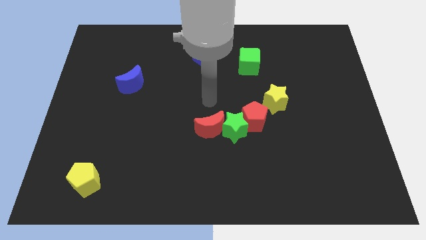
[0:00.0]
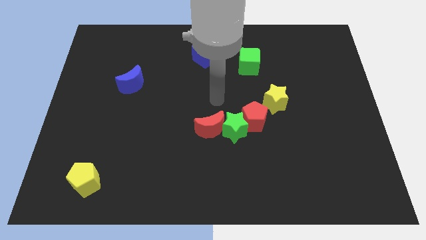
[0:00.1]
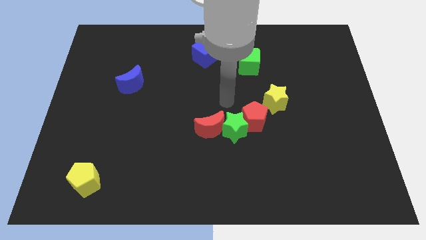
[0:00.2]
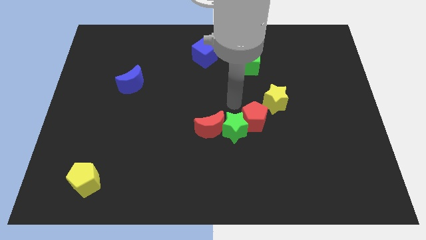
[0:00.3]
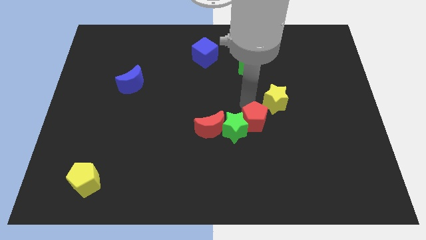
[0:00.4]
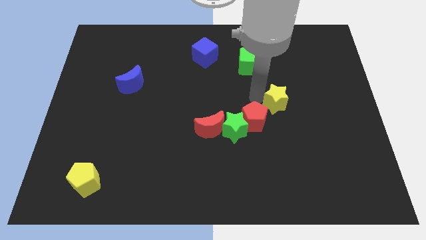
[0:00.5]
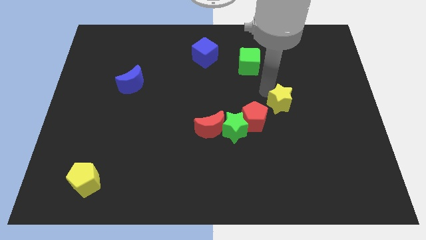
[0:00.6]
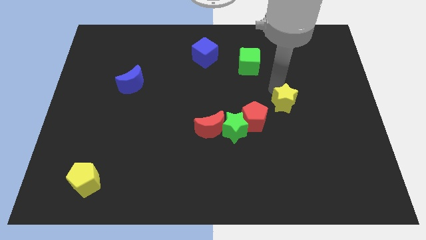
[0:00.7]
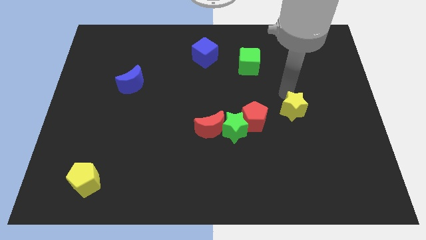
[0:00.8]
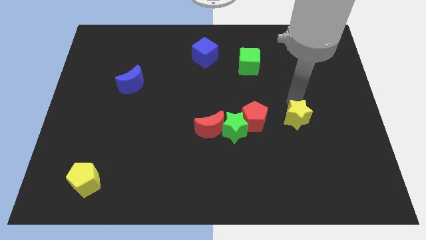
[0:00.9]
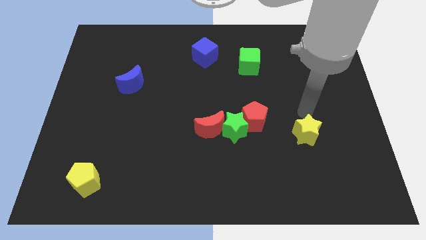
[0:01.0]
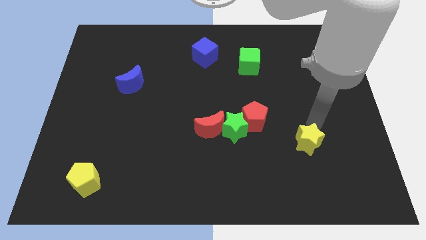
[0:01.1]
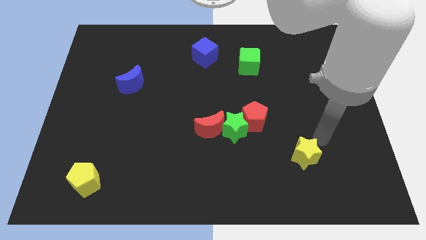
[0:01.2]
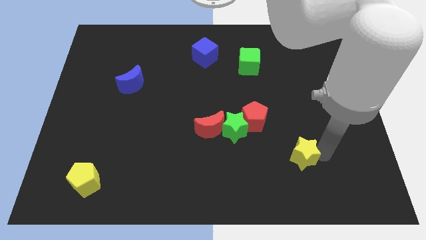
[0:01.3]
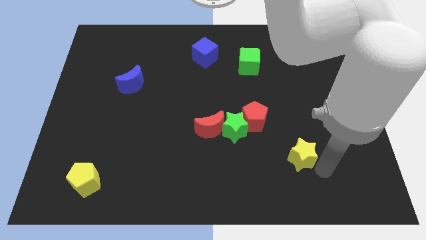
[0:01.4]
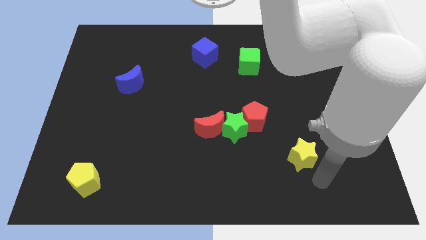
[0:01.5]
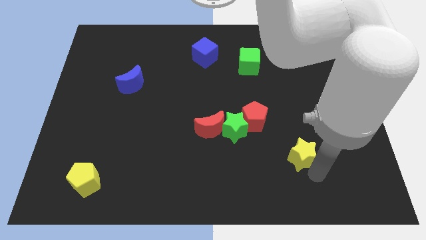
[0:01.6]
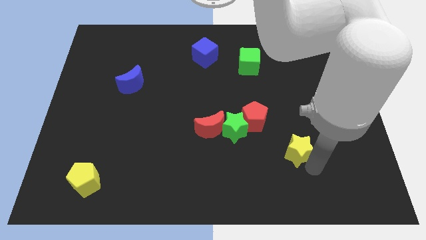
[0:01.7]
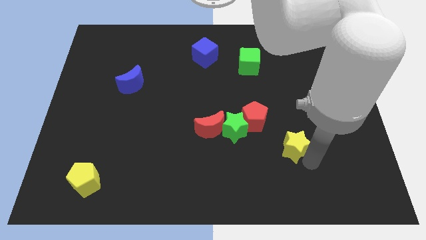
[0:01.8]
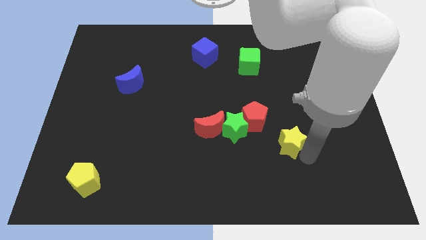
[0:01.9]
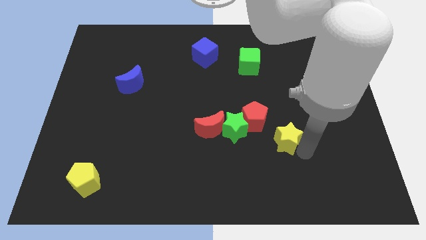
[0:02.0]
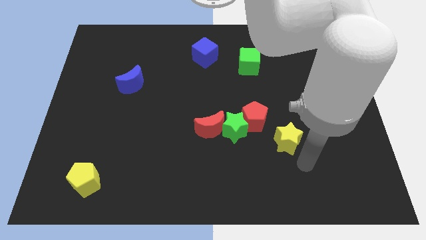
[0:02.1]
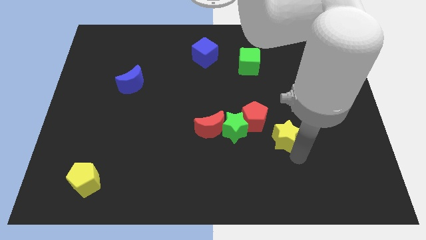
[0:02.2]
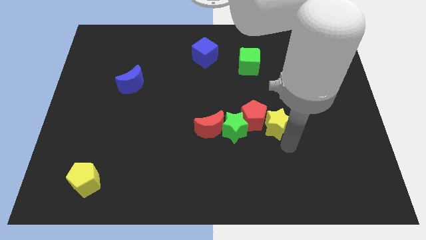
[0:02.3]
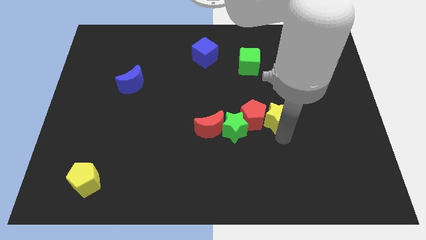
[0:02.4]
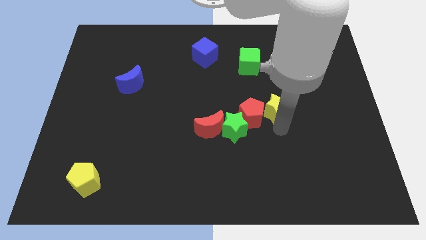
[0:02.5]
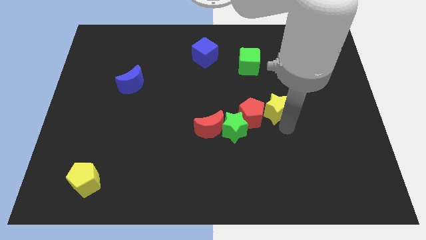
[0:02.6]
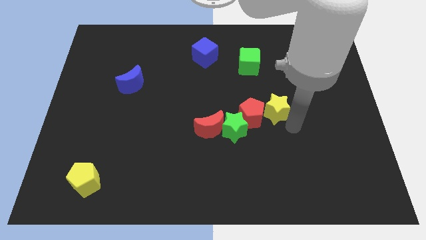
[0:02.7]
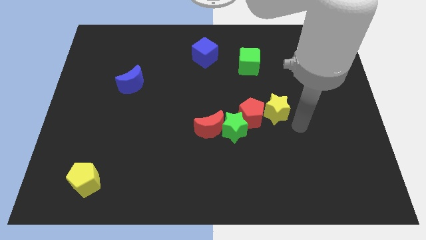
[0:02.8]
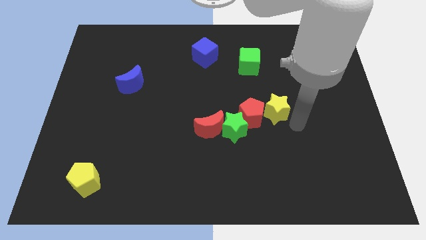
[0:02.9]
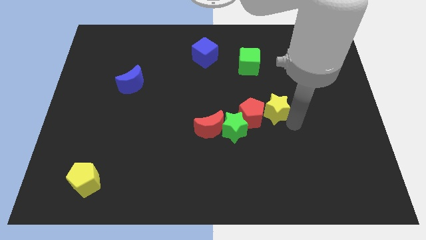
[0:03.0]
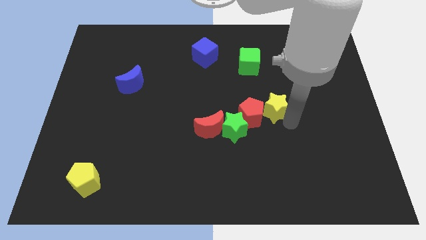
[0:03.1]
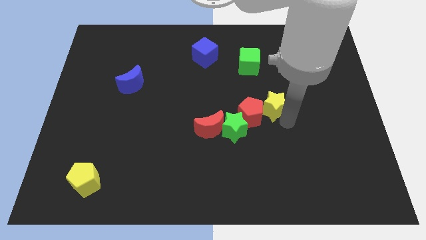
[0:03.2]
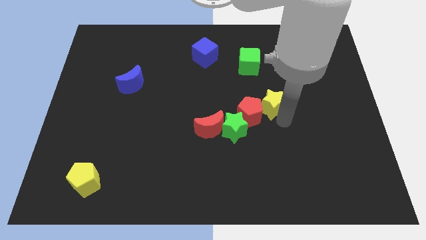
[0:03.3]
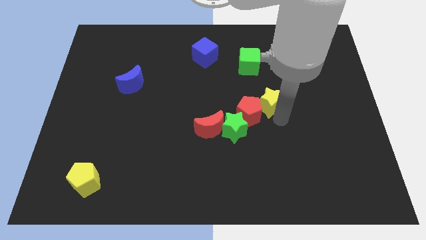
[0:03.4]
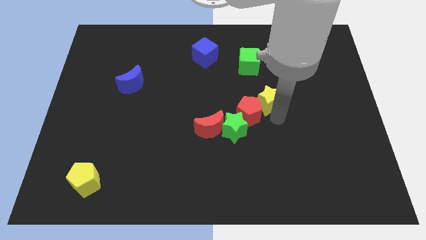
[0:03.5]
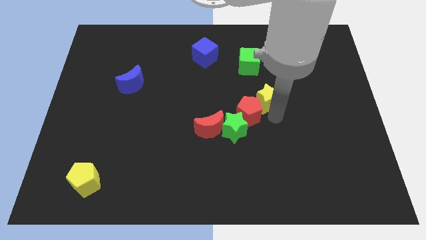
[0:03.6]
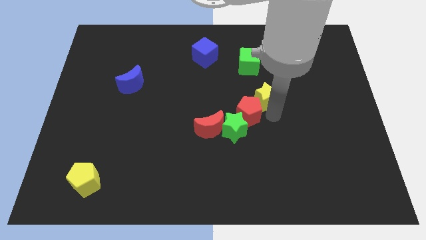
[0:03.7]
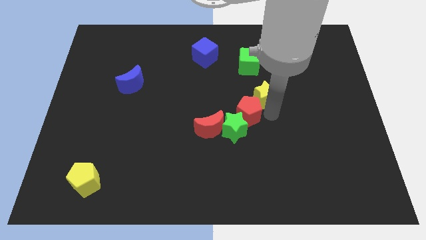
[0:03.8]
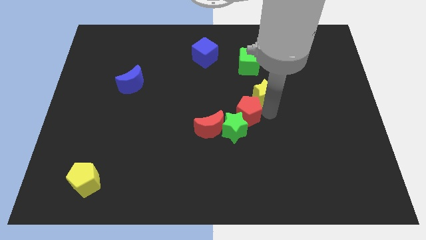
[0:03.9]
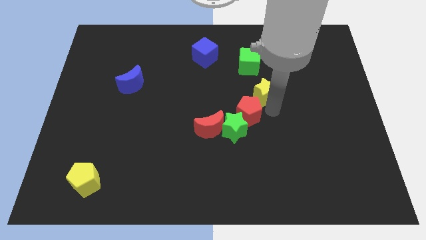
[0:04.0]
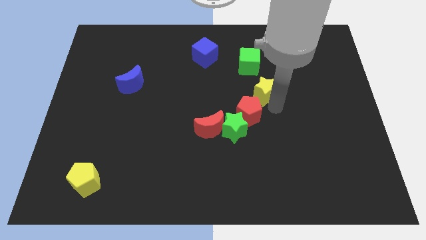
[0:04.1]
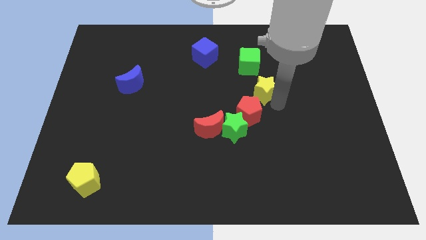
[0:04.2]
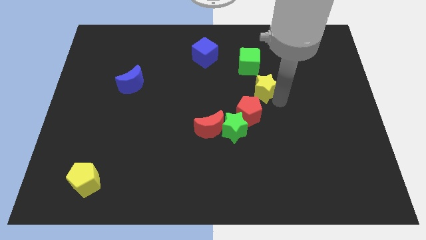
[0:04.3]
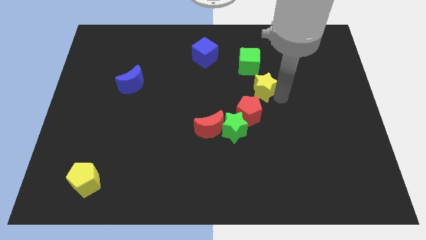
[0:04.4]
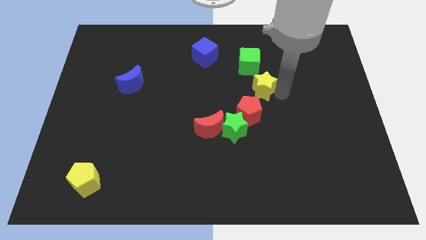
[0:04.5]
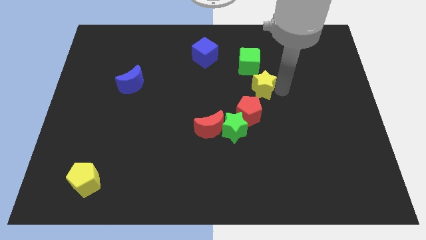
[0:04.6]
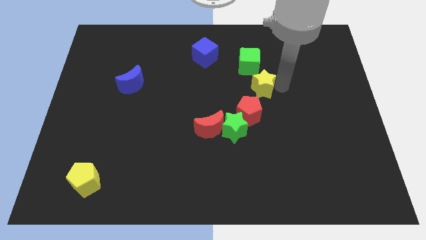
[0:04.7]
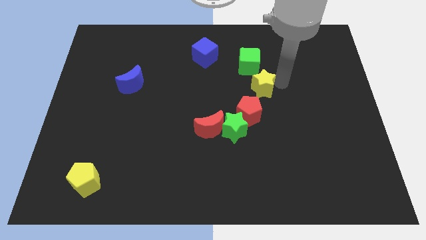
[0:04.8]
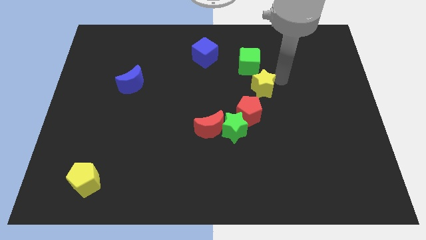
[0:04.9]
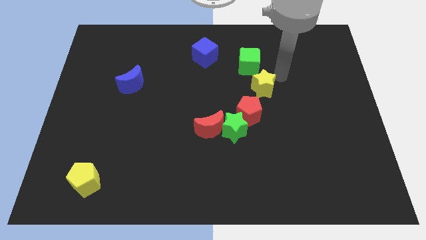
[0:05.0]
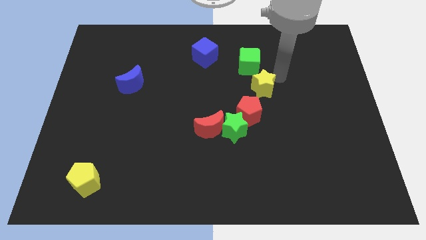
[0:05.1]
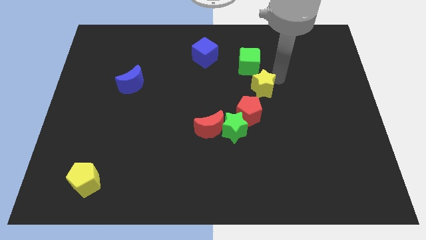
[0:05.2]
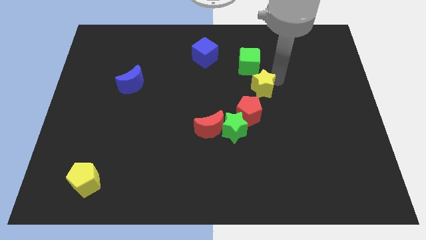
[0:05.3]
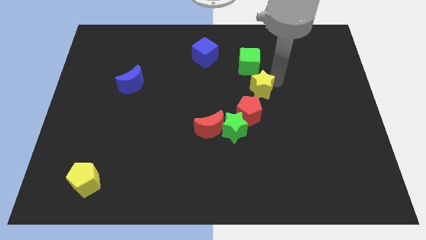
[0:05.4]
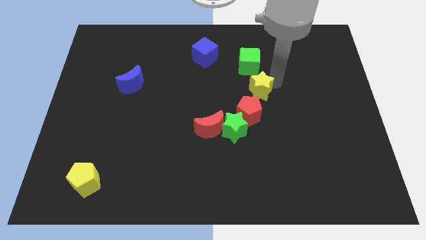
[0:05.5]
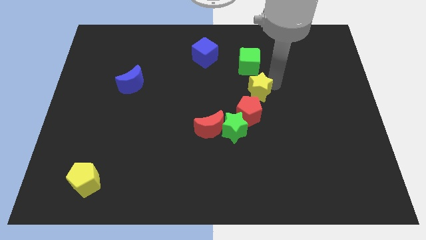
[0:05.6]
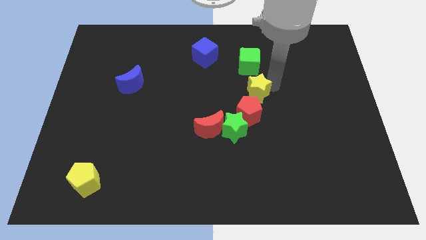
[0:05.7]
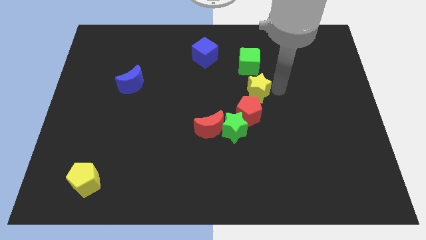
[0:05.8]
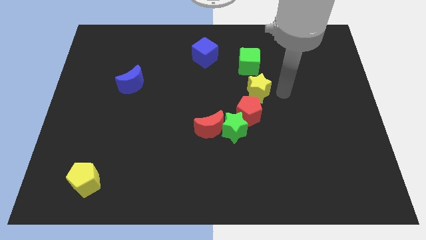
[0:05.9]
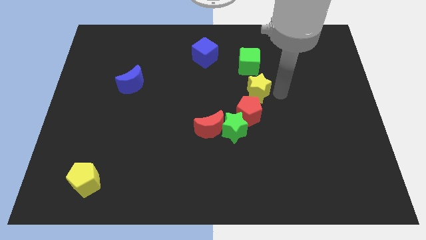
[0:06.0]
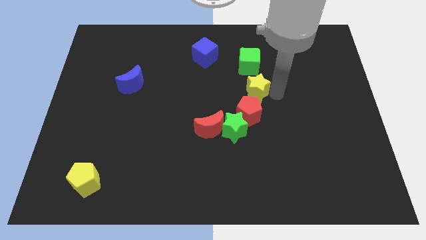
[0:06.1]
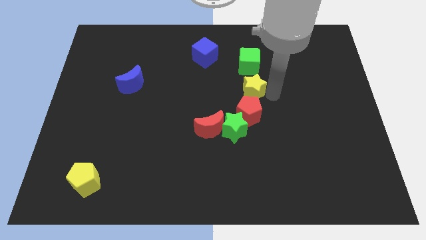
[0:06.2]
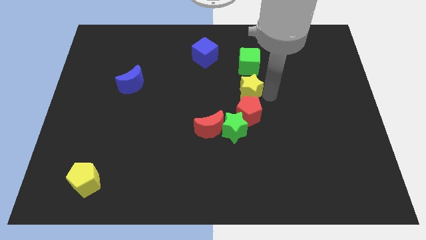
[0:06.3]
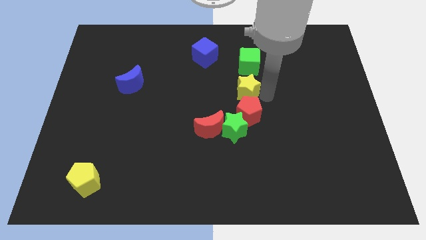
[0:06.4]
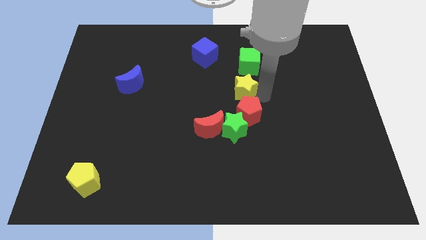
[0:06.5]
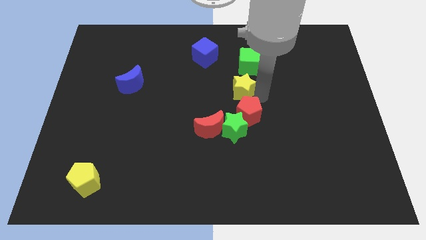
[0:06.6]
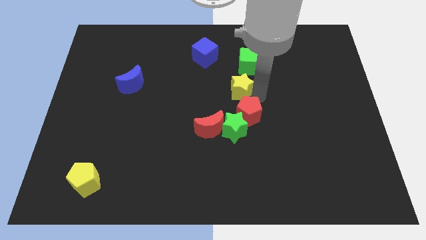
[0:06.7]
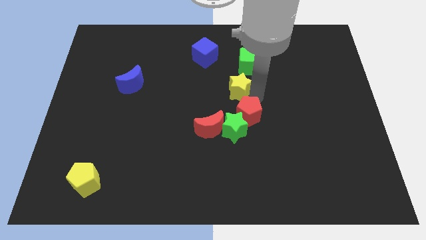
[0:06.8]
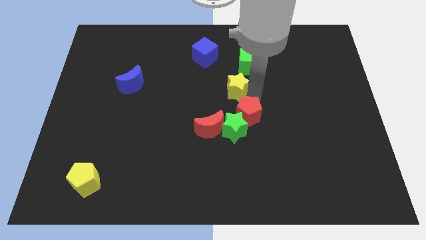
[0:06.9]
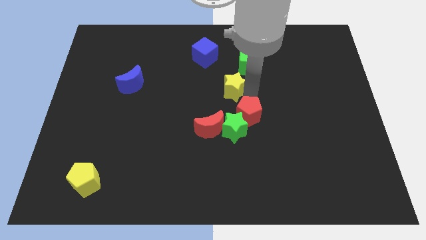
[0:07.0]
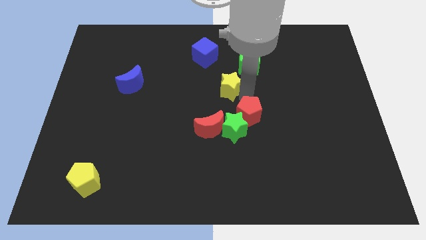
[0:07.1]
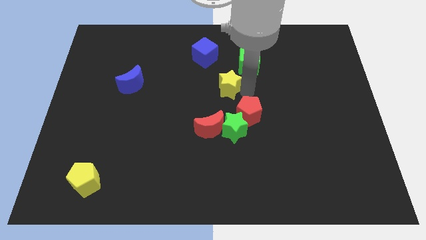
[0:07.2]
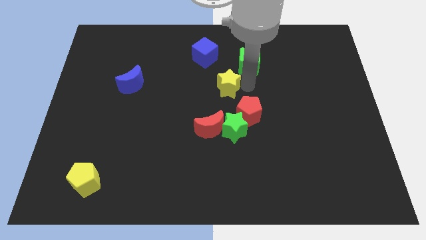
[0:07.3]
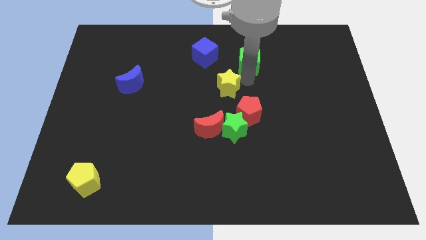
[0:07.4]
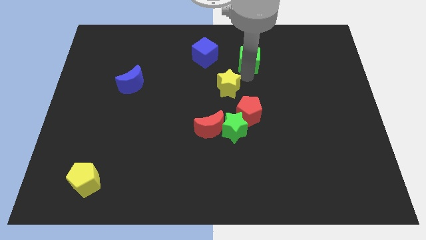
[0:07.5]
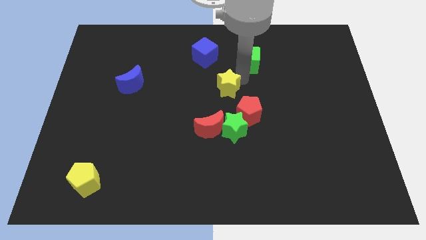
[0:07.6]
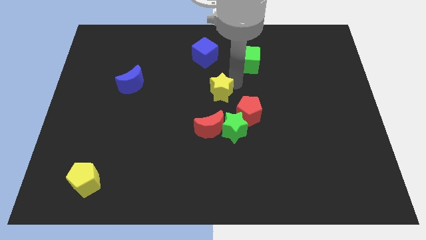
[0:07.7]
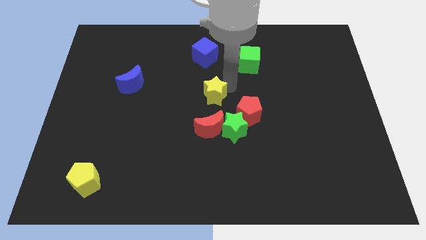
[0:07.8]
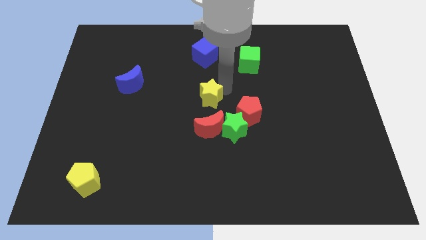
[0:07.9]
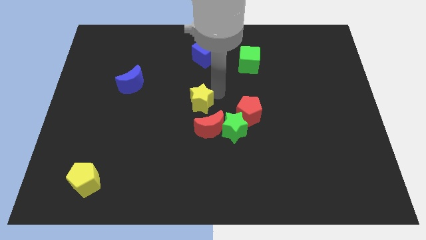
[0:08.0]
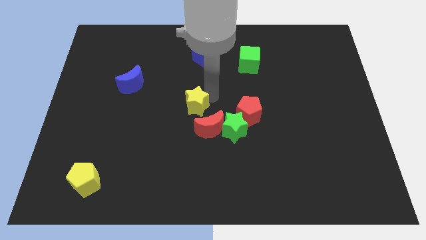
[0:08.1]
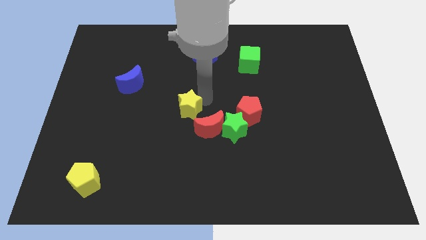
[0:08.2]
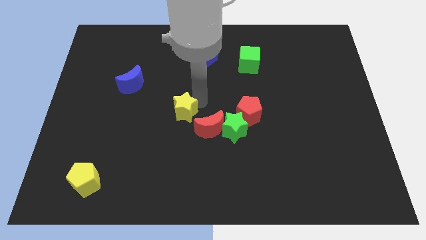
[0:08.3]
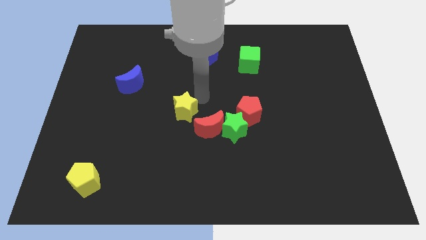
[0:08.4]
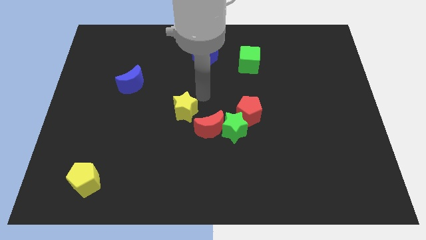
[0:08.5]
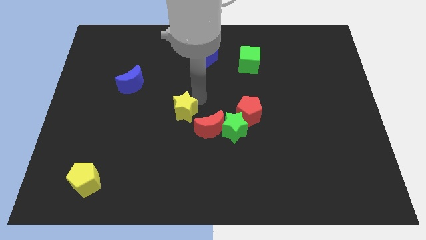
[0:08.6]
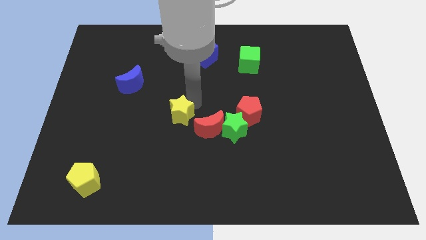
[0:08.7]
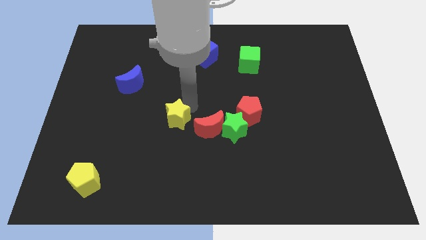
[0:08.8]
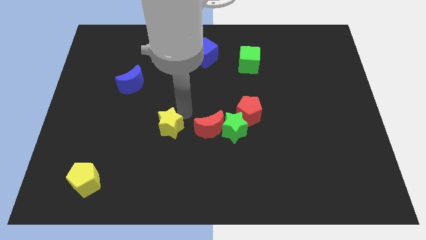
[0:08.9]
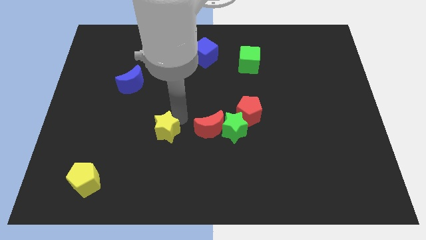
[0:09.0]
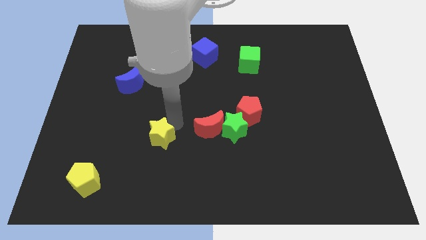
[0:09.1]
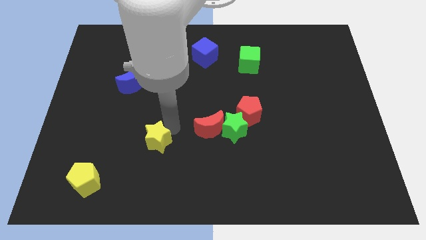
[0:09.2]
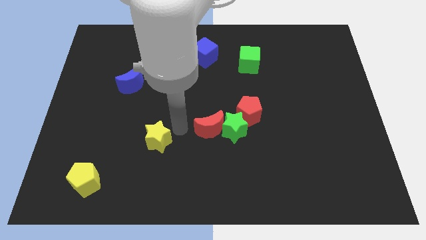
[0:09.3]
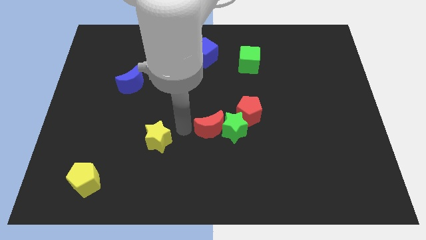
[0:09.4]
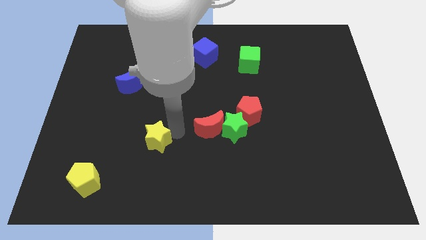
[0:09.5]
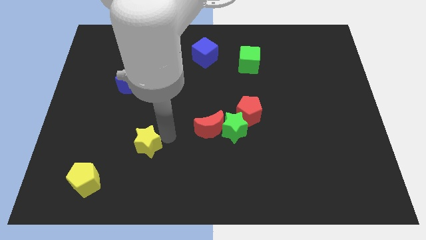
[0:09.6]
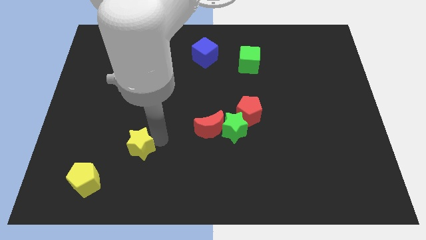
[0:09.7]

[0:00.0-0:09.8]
move the yellow star diagonally up and to the right of the yellow pentagon
